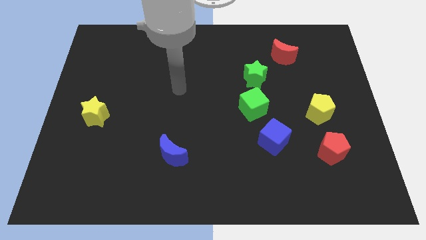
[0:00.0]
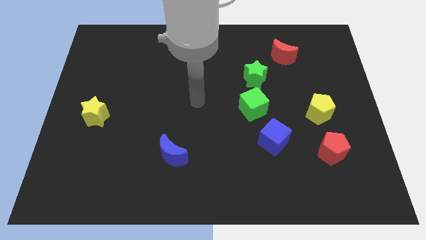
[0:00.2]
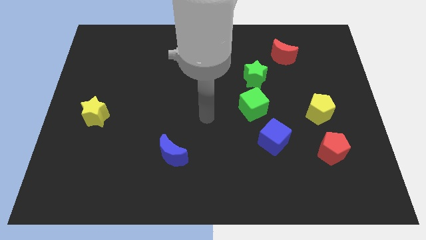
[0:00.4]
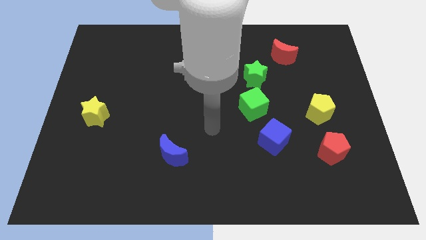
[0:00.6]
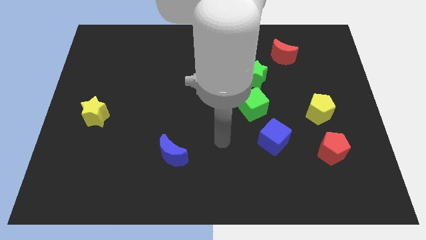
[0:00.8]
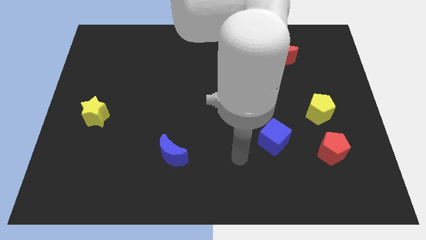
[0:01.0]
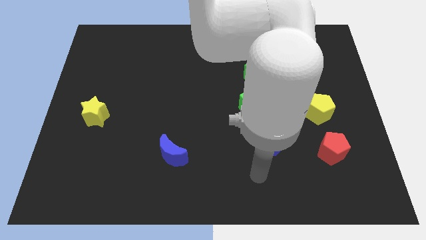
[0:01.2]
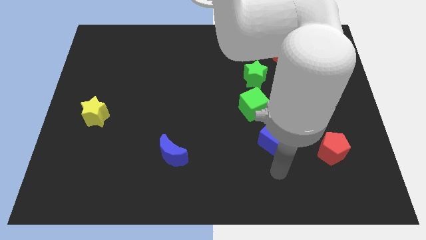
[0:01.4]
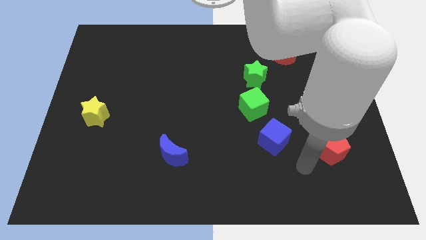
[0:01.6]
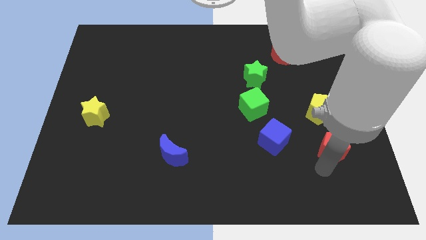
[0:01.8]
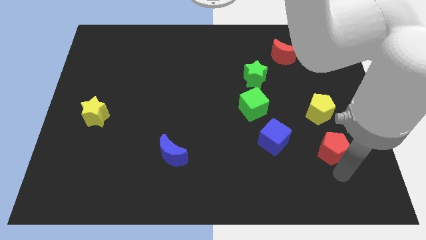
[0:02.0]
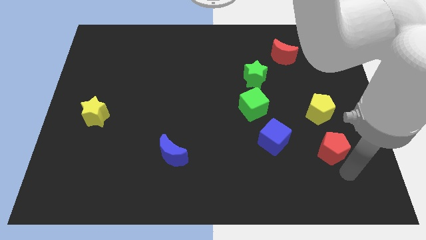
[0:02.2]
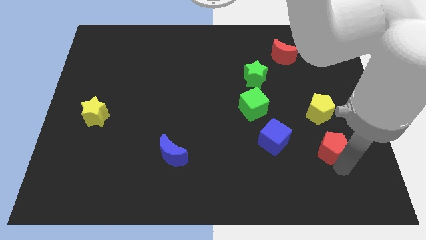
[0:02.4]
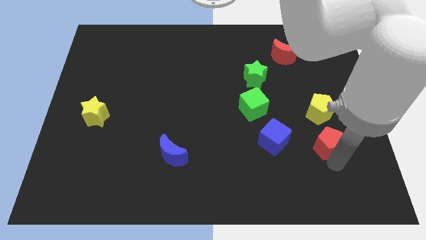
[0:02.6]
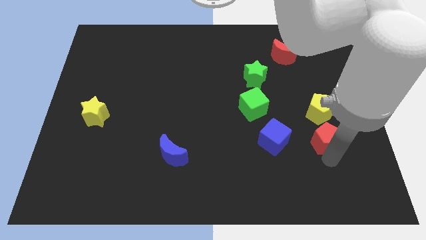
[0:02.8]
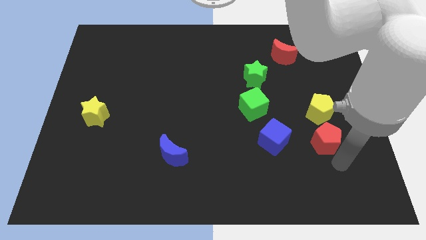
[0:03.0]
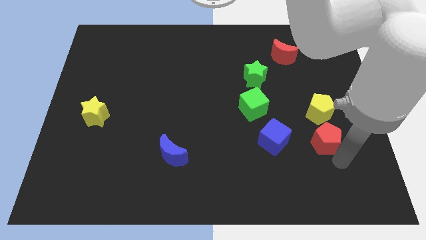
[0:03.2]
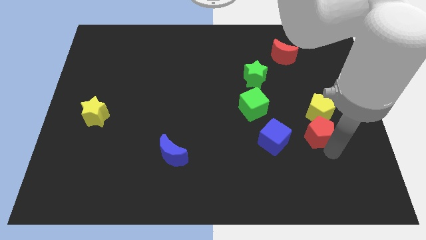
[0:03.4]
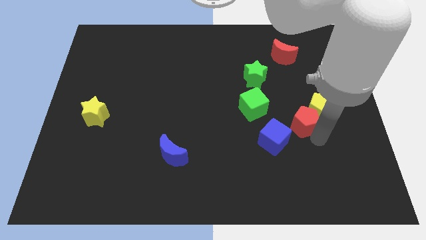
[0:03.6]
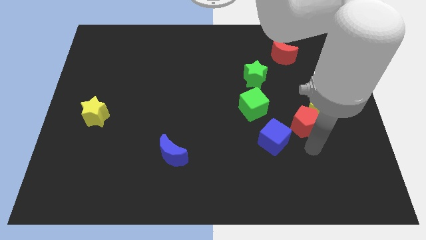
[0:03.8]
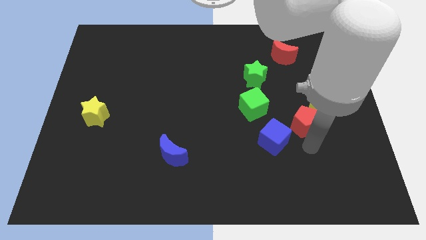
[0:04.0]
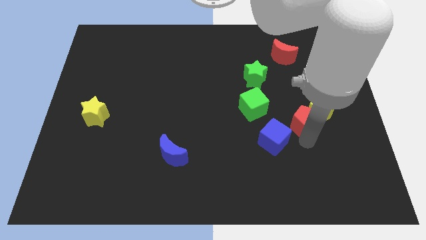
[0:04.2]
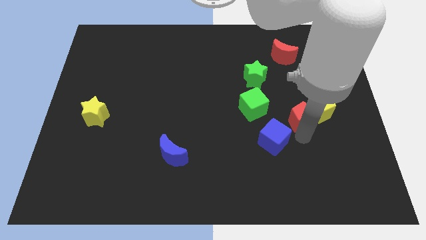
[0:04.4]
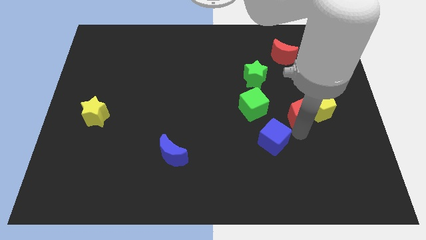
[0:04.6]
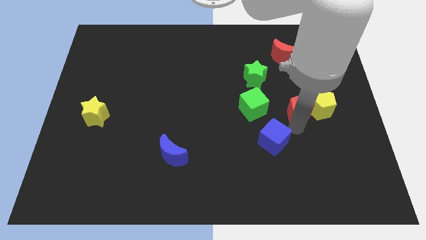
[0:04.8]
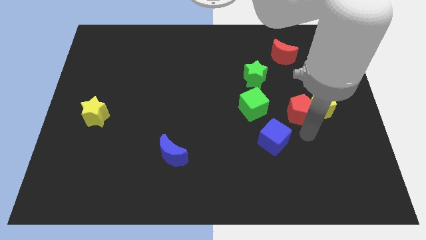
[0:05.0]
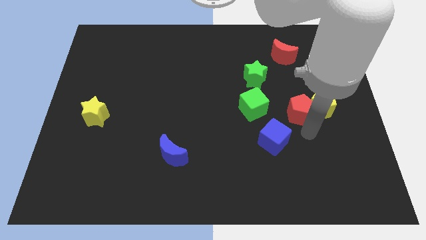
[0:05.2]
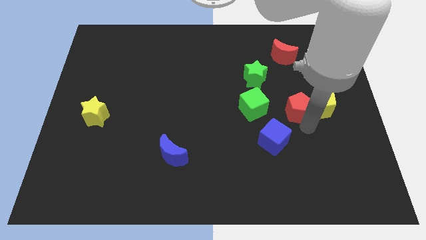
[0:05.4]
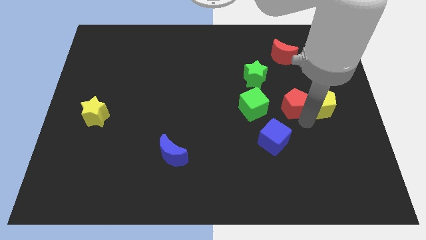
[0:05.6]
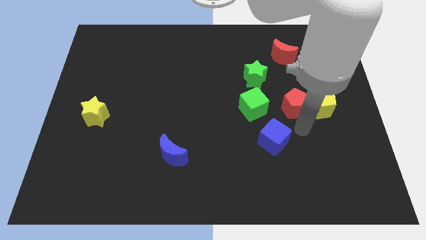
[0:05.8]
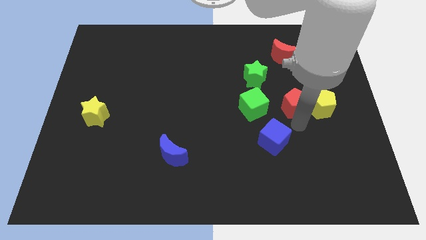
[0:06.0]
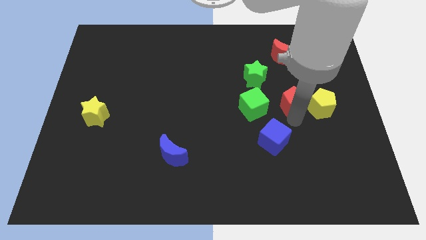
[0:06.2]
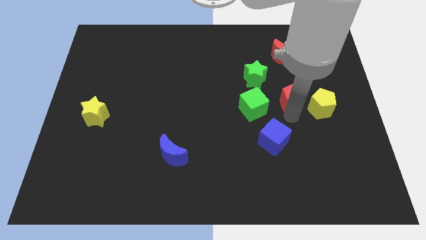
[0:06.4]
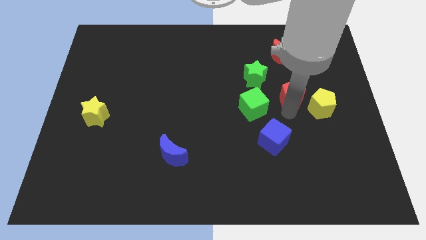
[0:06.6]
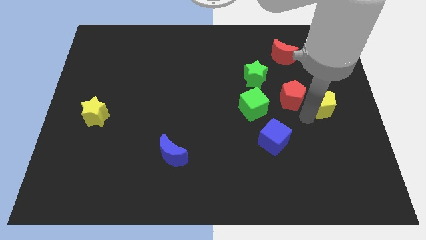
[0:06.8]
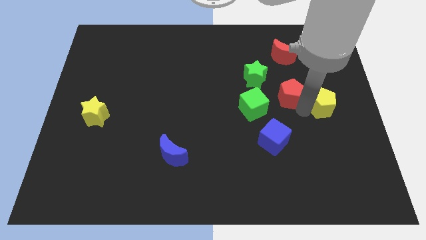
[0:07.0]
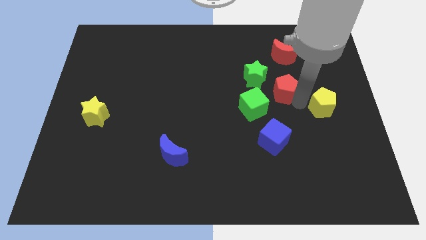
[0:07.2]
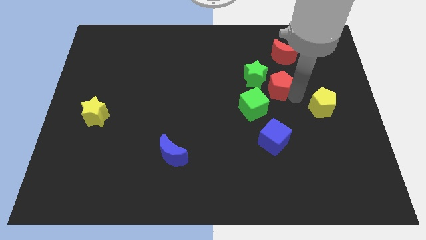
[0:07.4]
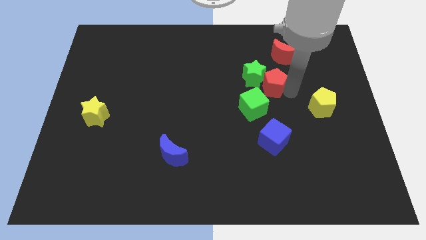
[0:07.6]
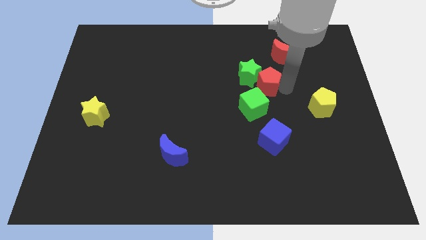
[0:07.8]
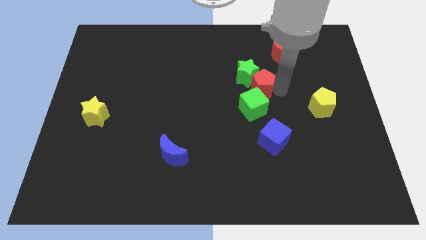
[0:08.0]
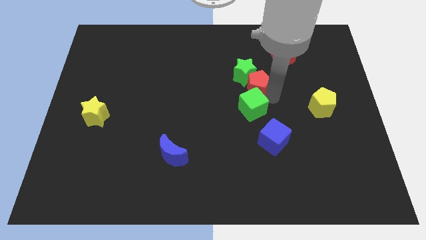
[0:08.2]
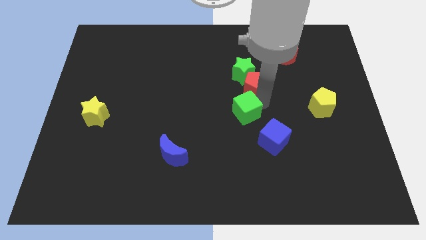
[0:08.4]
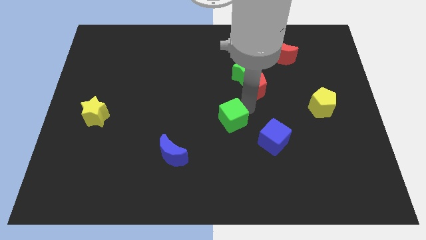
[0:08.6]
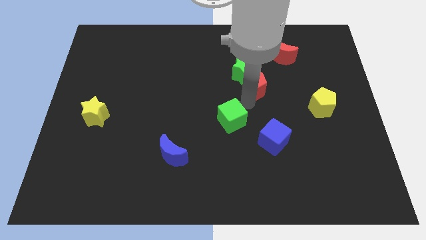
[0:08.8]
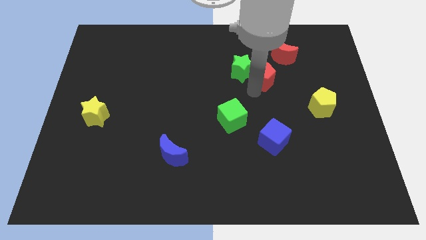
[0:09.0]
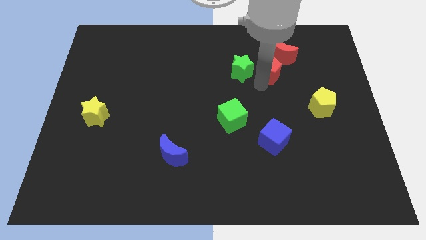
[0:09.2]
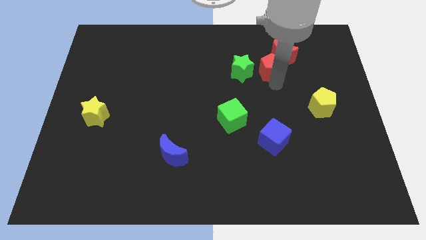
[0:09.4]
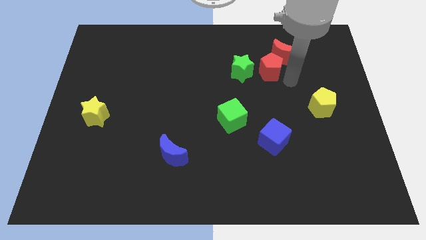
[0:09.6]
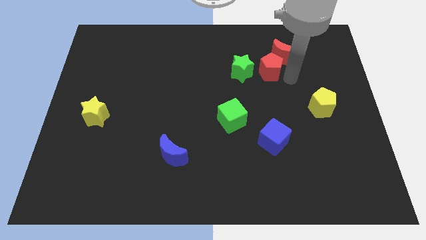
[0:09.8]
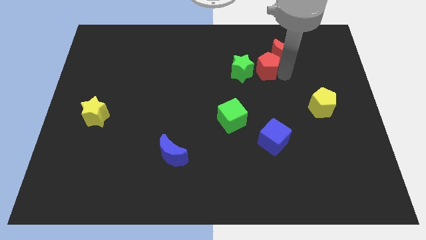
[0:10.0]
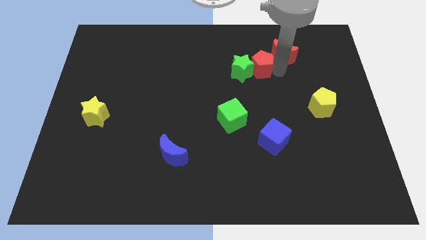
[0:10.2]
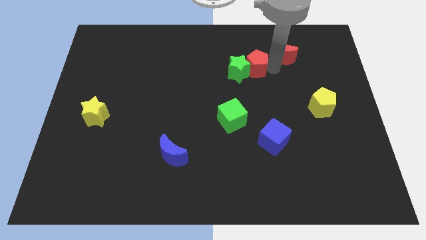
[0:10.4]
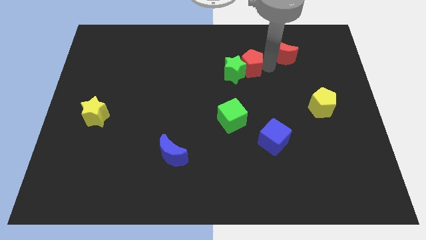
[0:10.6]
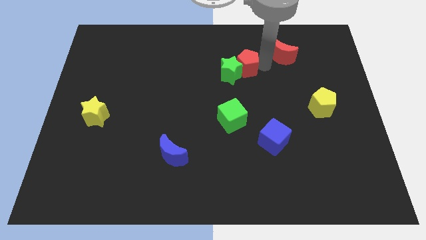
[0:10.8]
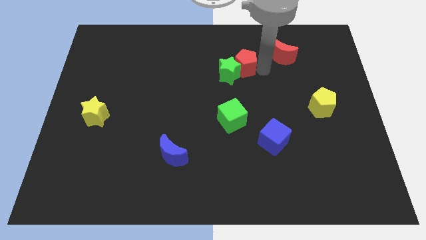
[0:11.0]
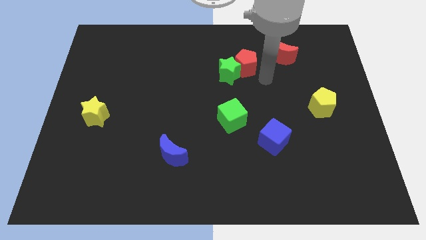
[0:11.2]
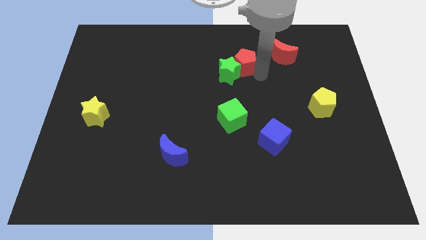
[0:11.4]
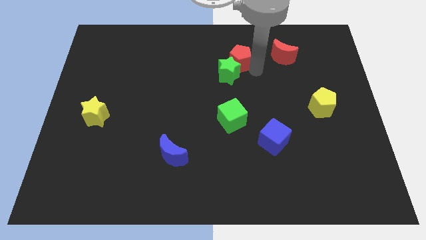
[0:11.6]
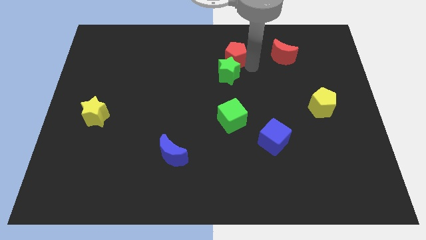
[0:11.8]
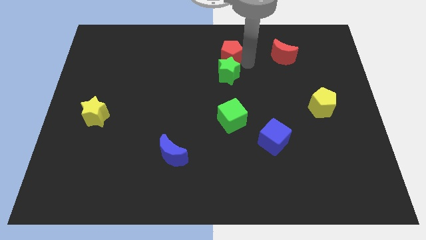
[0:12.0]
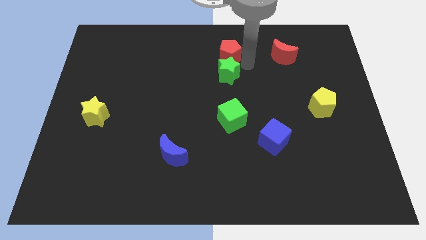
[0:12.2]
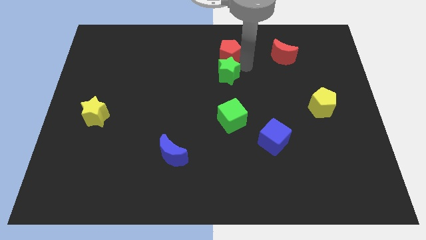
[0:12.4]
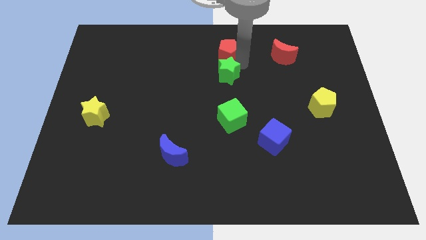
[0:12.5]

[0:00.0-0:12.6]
put the red pentagon to the towards your base
